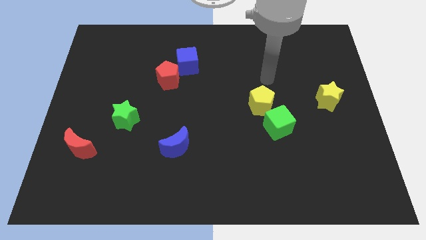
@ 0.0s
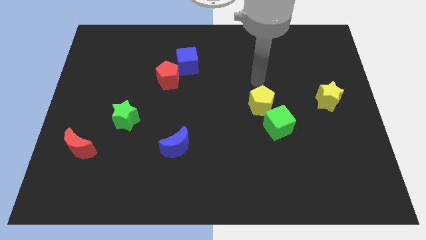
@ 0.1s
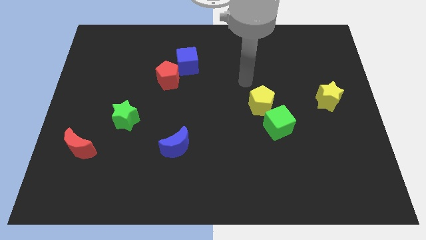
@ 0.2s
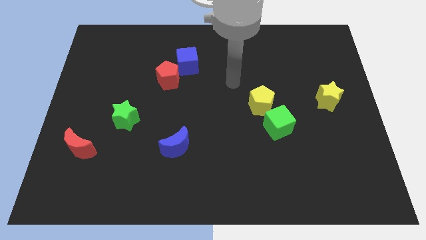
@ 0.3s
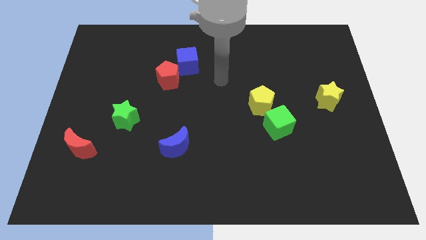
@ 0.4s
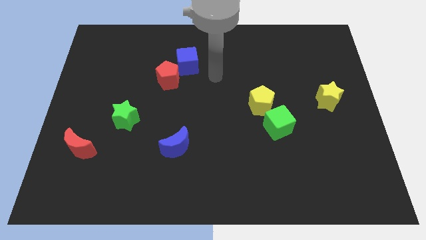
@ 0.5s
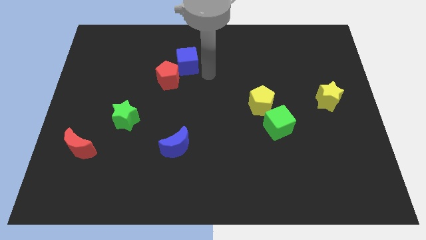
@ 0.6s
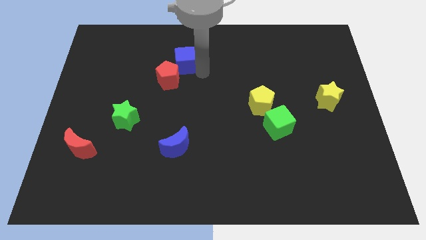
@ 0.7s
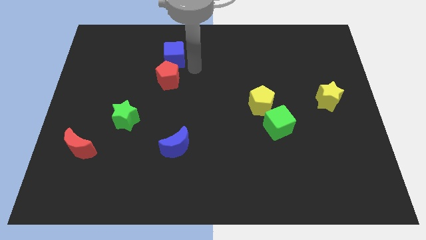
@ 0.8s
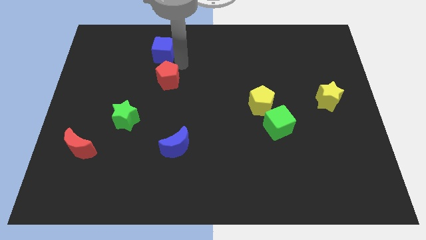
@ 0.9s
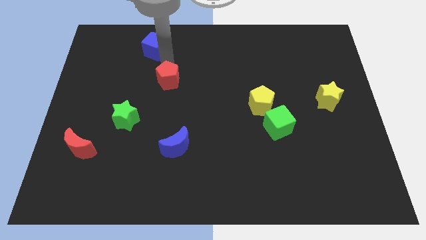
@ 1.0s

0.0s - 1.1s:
separate the red pentagon from the blue cube

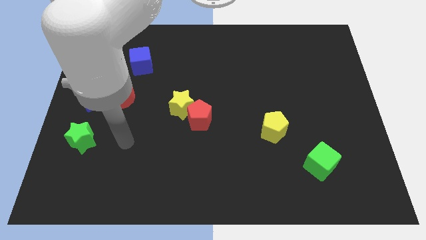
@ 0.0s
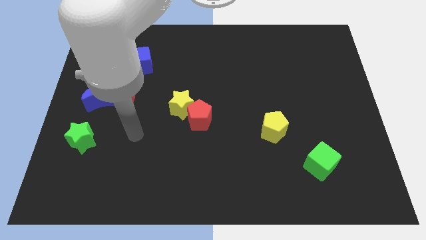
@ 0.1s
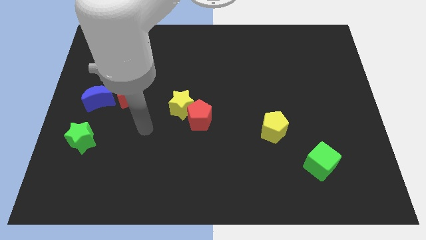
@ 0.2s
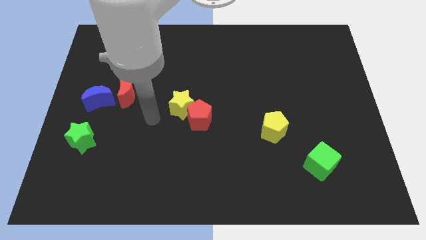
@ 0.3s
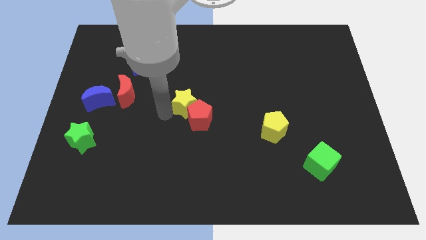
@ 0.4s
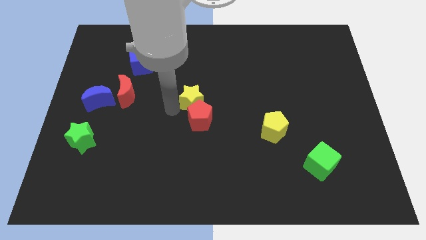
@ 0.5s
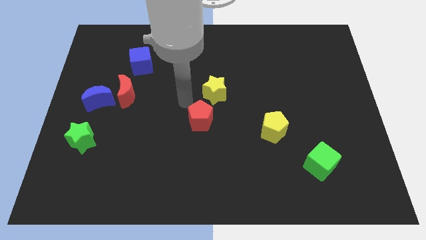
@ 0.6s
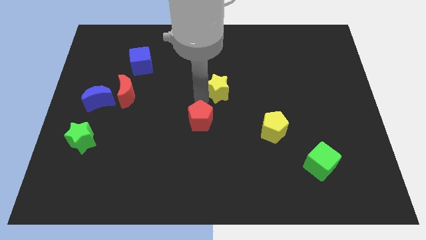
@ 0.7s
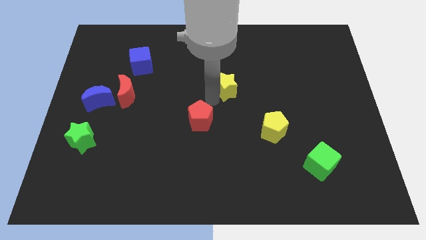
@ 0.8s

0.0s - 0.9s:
separate the red pentagon from the yellow star

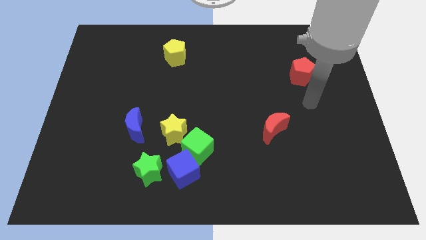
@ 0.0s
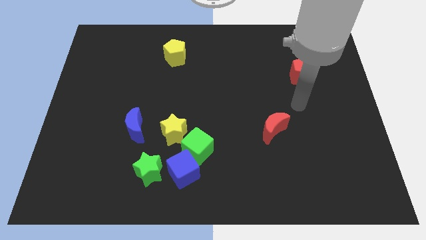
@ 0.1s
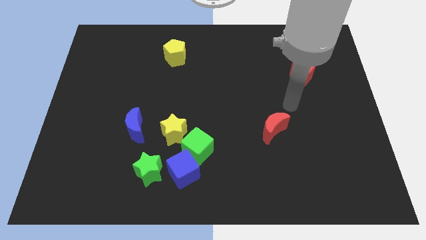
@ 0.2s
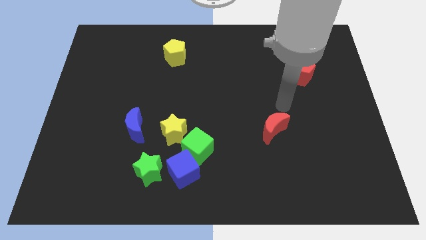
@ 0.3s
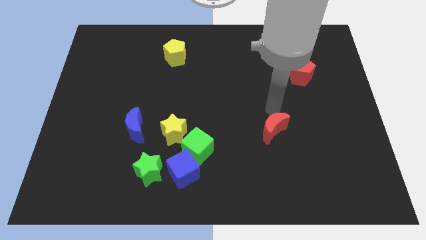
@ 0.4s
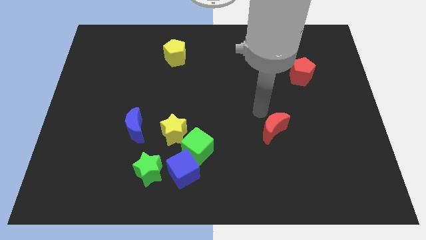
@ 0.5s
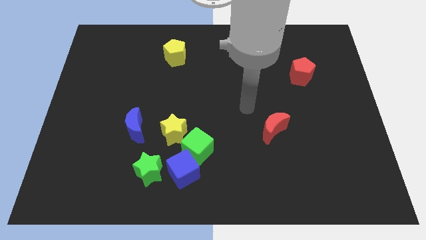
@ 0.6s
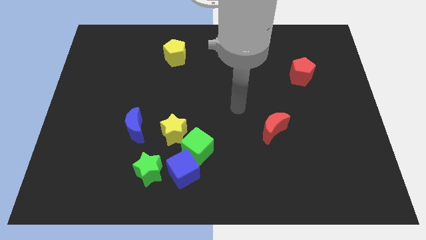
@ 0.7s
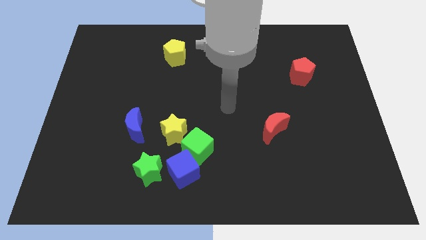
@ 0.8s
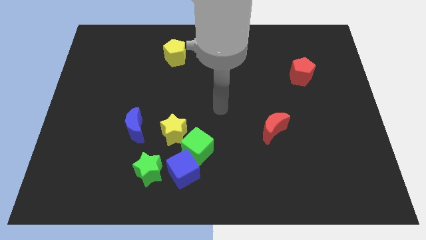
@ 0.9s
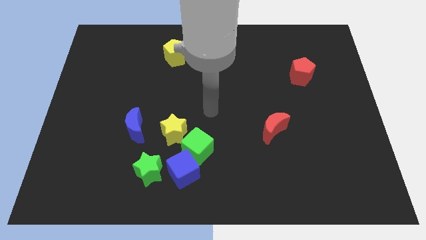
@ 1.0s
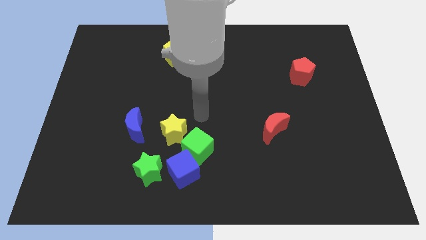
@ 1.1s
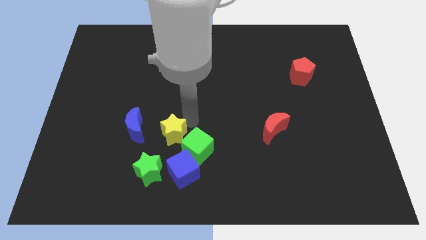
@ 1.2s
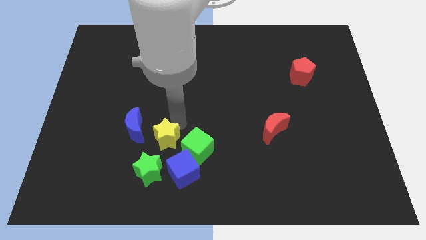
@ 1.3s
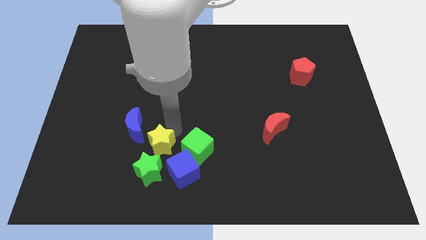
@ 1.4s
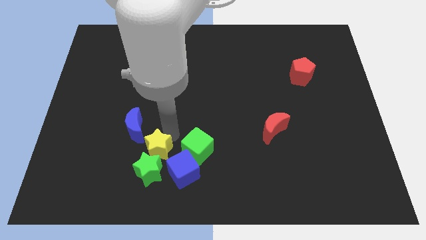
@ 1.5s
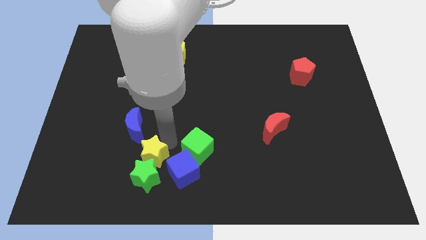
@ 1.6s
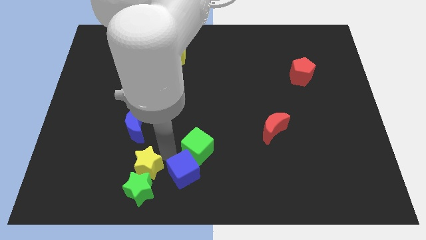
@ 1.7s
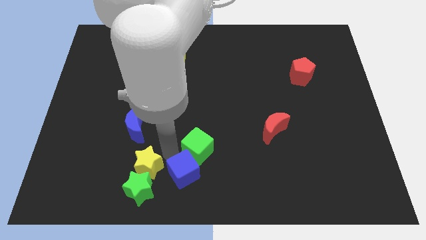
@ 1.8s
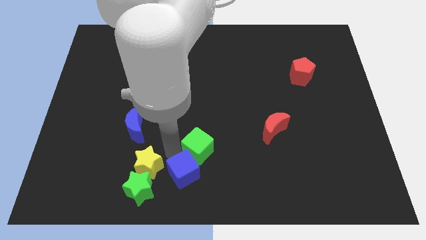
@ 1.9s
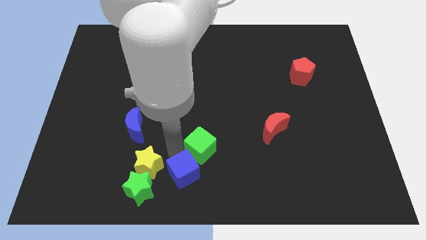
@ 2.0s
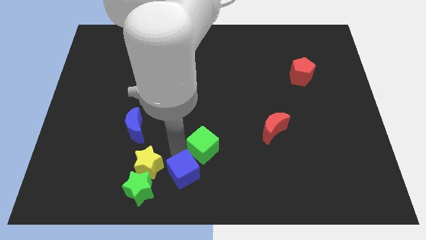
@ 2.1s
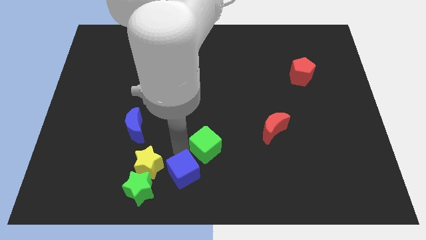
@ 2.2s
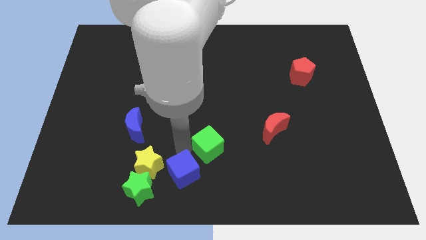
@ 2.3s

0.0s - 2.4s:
move the green cube away from the blue cube and yellow star

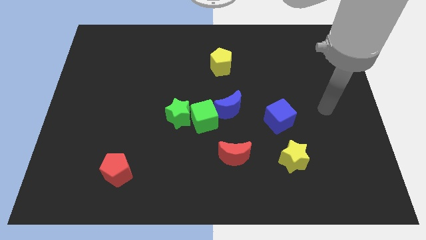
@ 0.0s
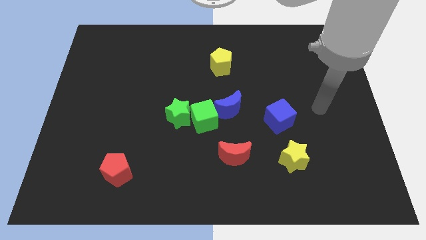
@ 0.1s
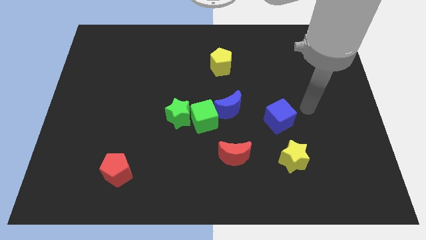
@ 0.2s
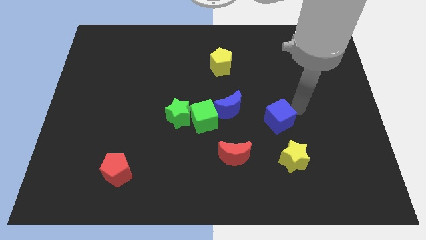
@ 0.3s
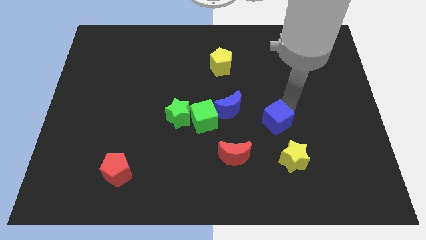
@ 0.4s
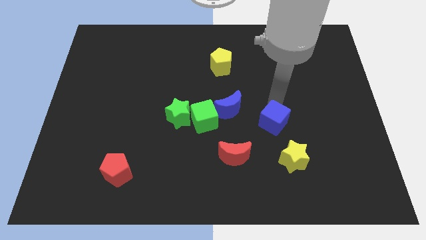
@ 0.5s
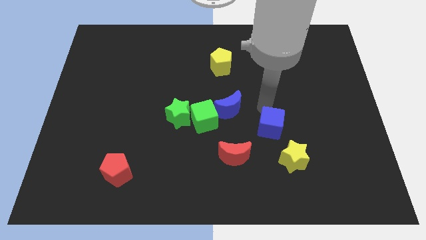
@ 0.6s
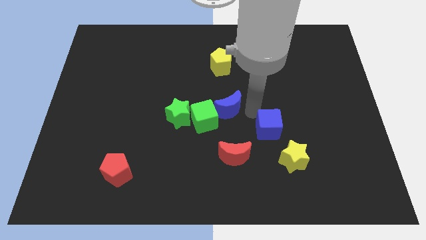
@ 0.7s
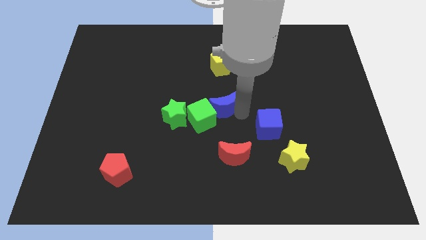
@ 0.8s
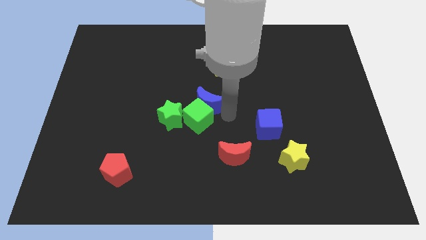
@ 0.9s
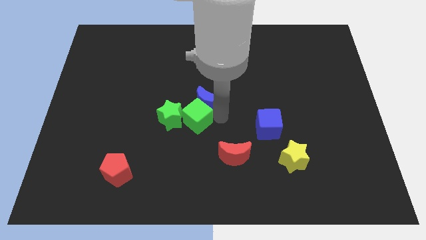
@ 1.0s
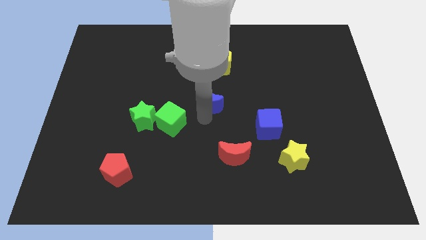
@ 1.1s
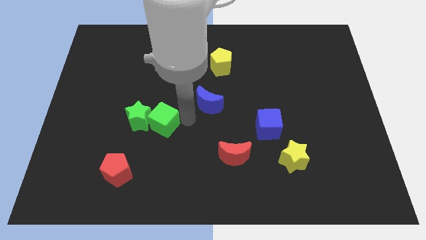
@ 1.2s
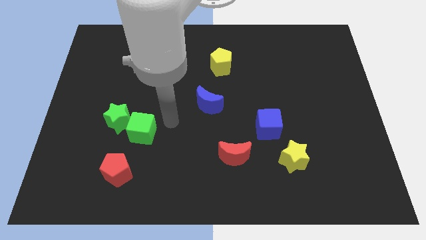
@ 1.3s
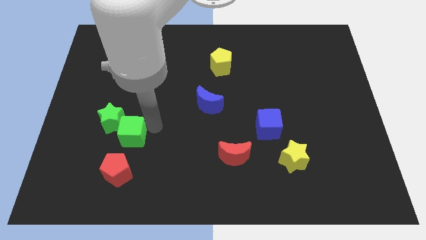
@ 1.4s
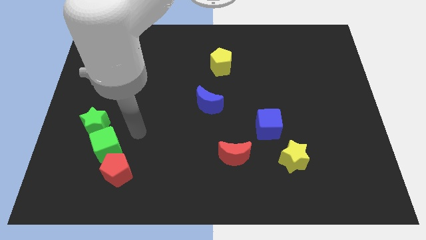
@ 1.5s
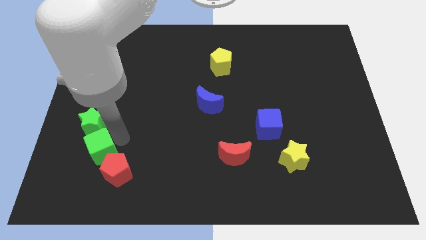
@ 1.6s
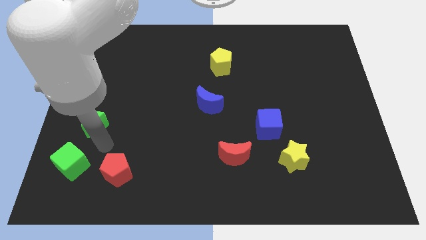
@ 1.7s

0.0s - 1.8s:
separate the green star from the green cube

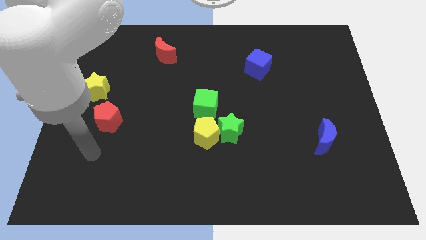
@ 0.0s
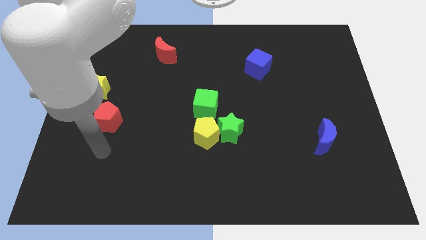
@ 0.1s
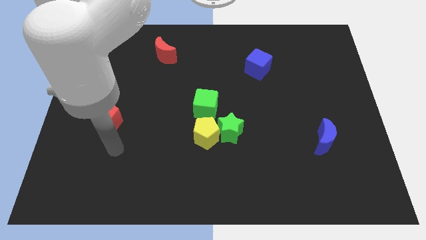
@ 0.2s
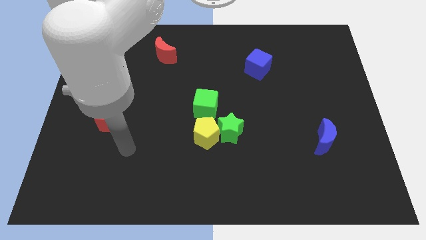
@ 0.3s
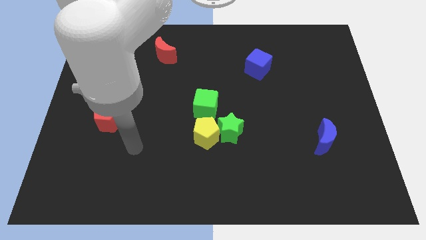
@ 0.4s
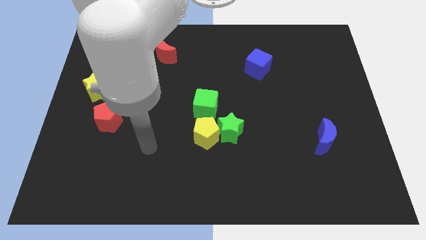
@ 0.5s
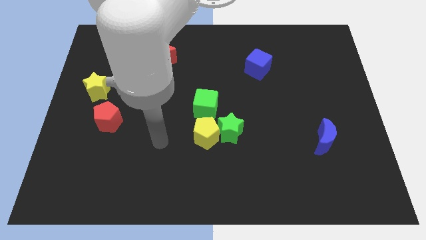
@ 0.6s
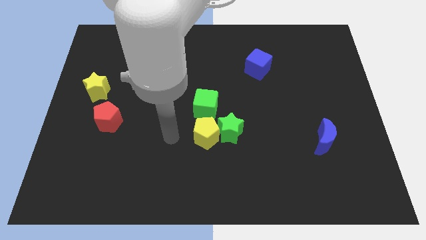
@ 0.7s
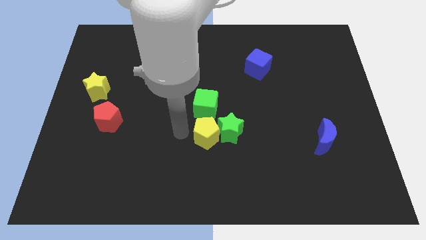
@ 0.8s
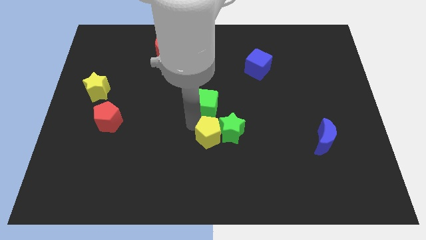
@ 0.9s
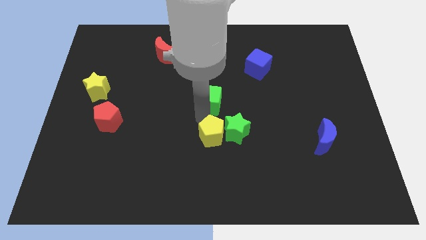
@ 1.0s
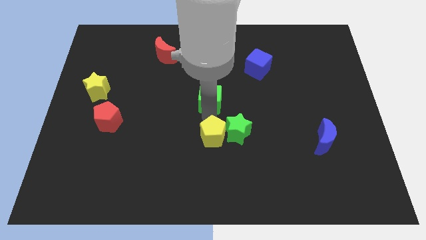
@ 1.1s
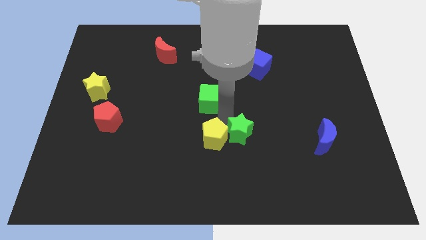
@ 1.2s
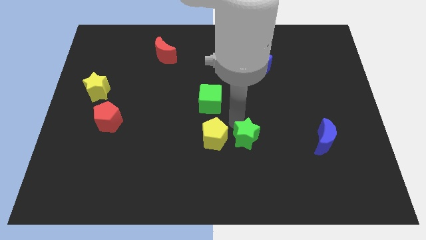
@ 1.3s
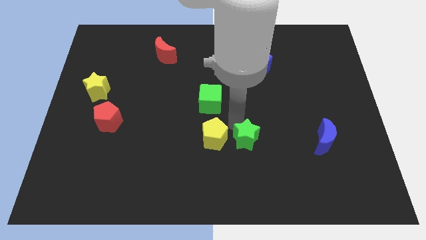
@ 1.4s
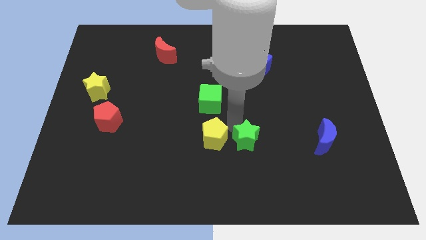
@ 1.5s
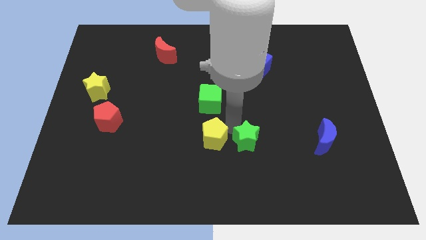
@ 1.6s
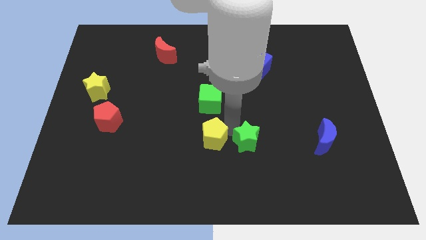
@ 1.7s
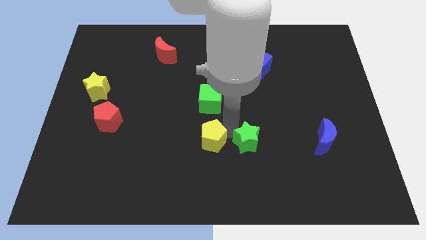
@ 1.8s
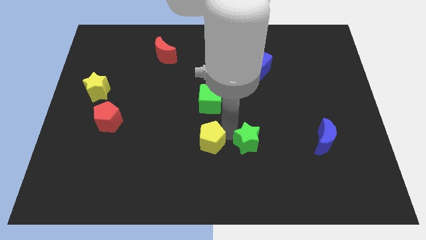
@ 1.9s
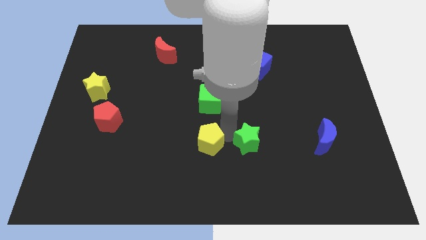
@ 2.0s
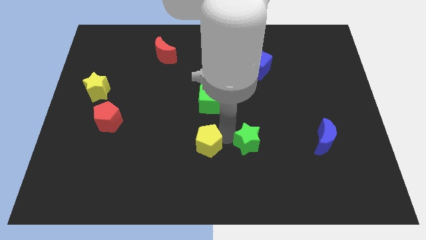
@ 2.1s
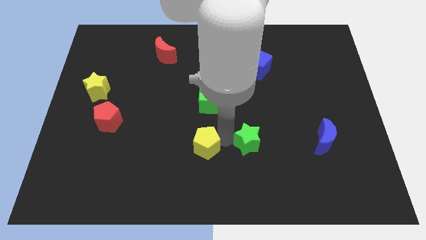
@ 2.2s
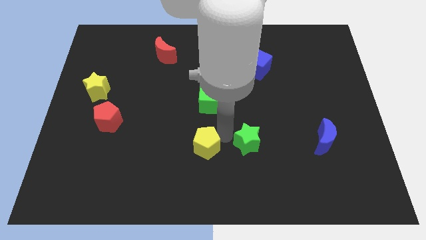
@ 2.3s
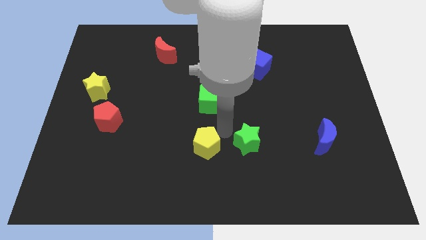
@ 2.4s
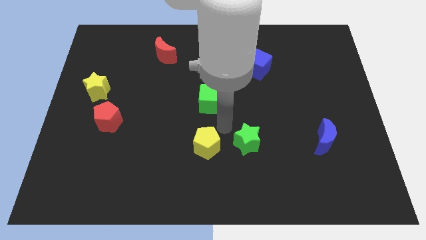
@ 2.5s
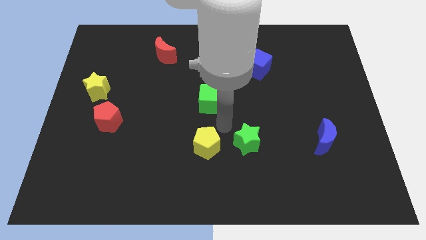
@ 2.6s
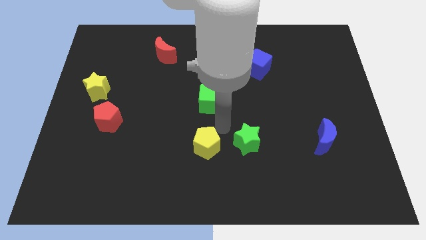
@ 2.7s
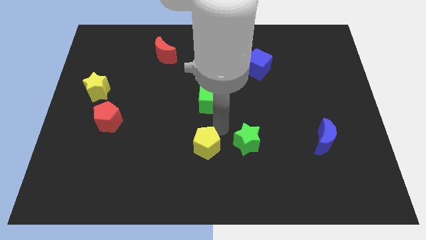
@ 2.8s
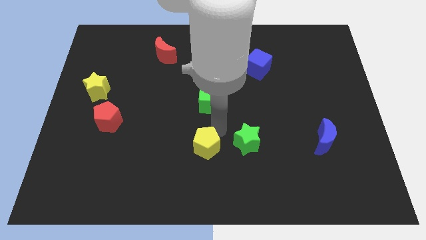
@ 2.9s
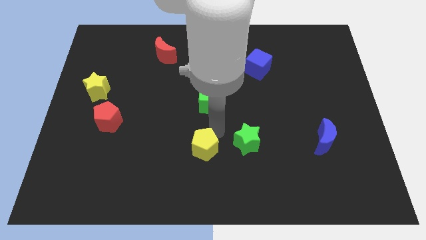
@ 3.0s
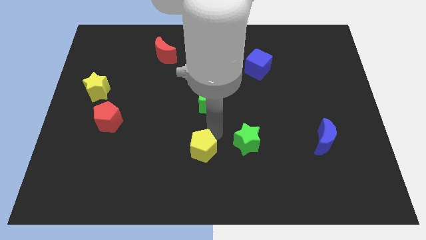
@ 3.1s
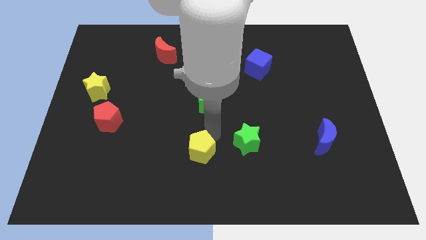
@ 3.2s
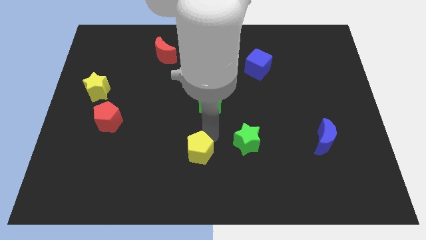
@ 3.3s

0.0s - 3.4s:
move the yellow pentagon away from the green star and green cube
